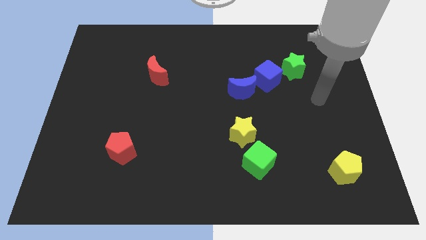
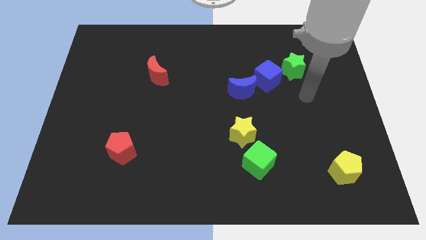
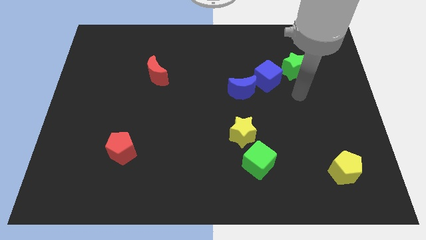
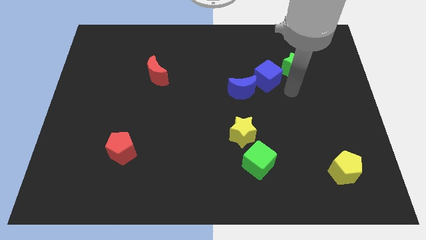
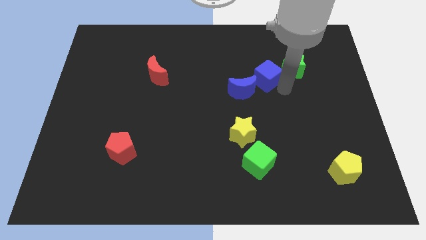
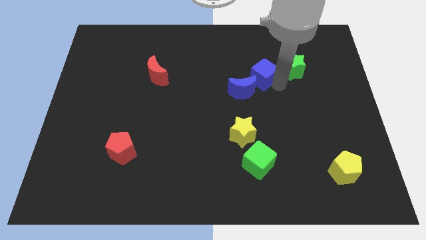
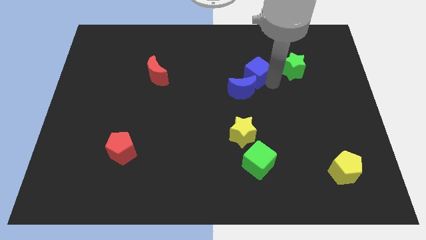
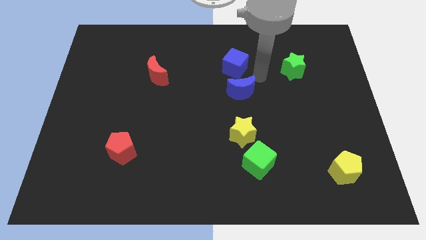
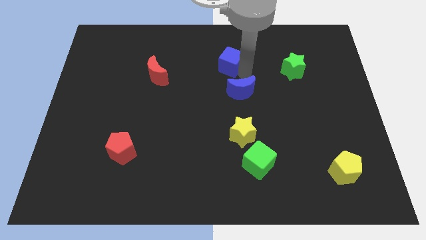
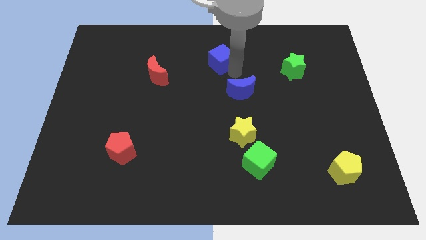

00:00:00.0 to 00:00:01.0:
separate the blue moon from the blue cube

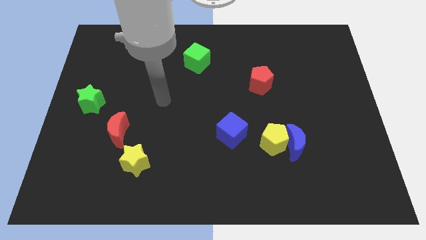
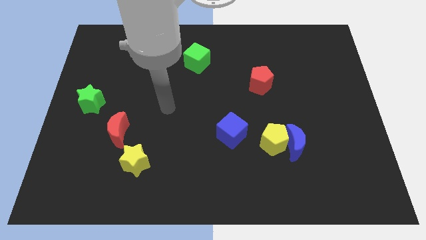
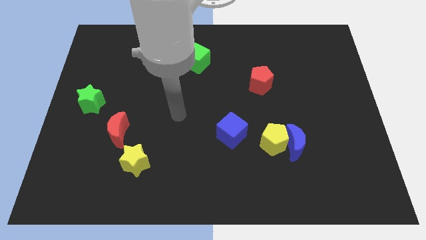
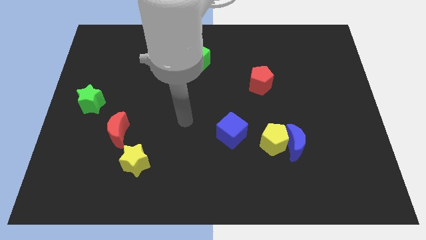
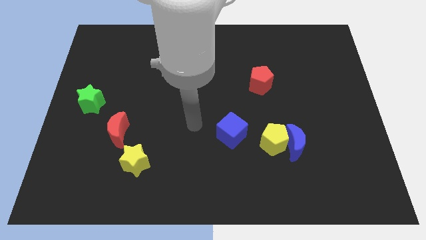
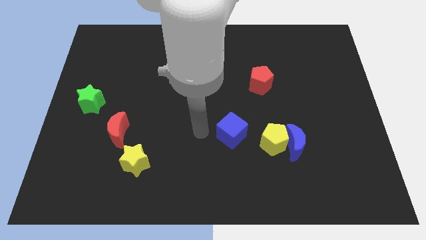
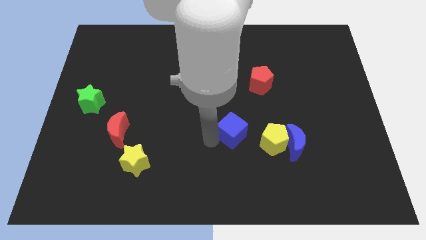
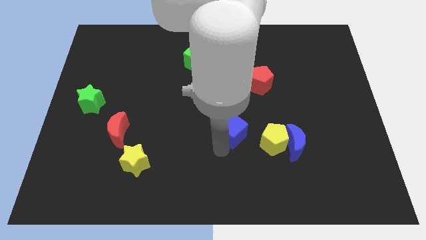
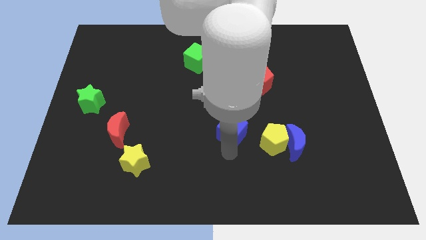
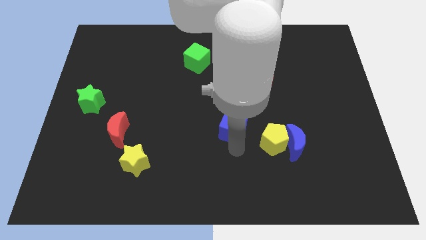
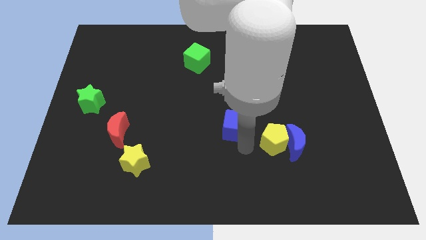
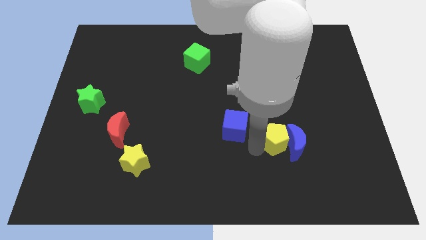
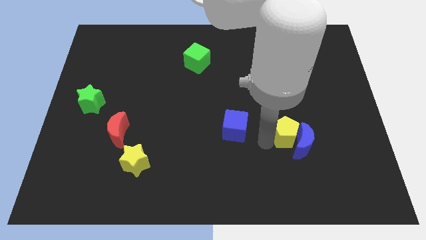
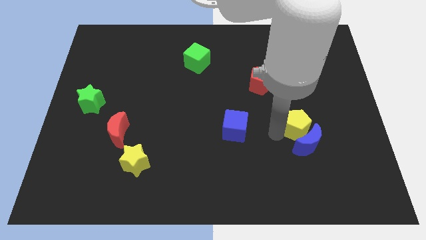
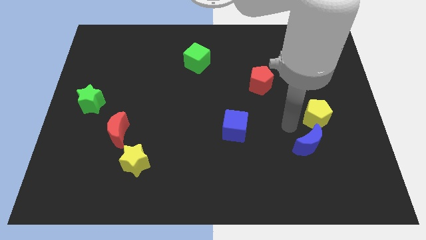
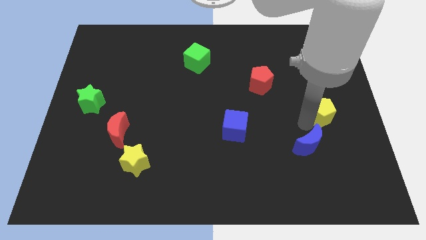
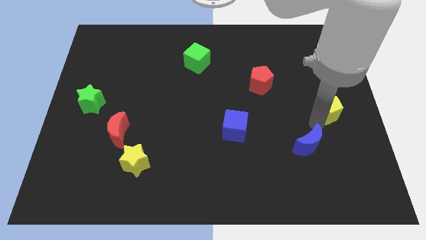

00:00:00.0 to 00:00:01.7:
separate the blue moon from the yellow pentagon

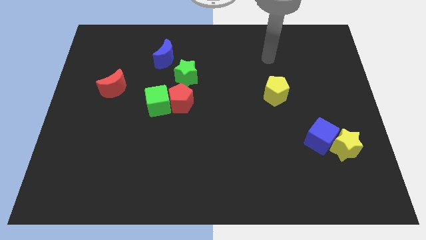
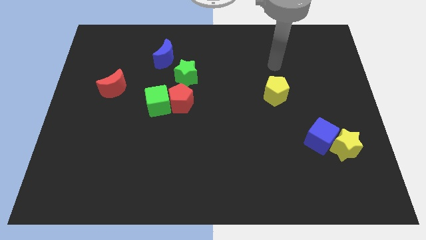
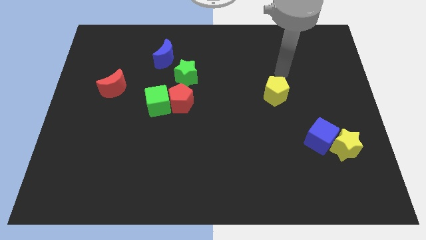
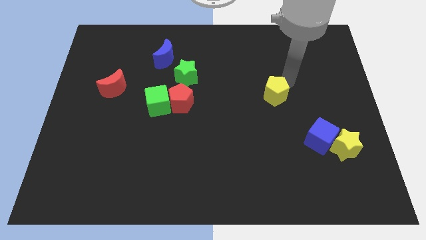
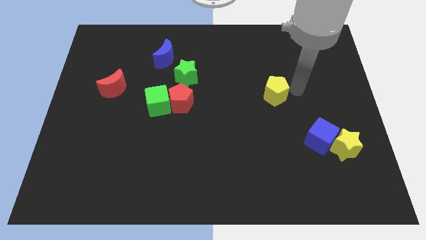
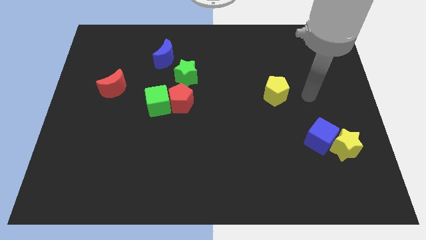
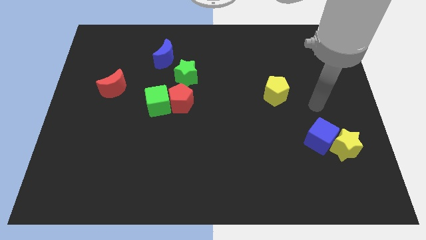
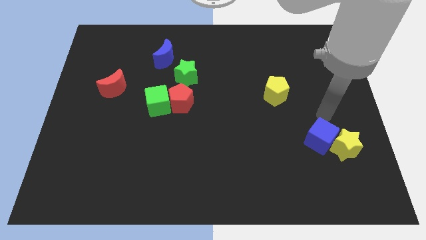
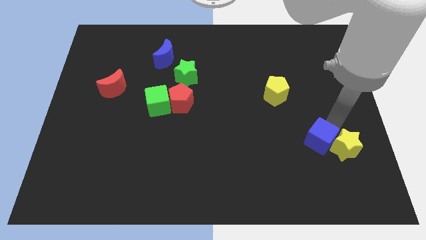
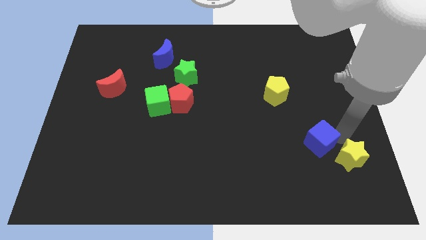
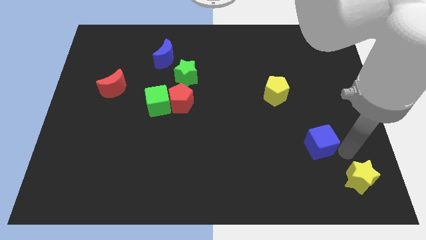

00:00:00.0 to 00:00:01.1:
pull the blue cube apart from the yellow star

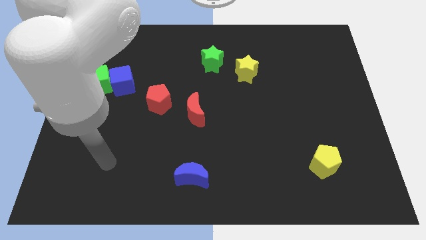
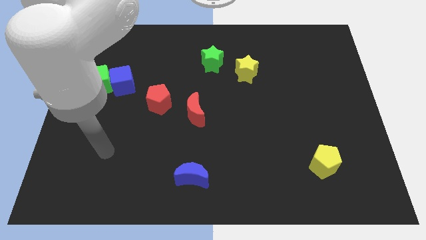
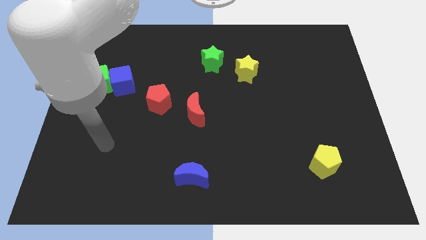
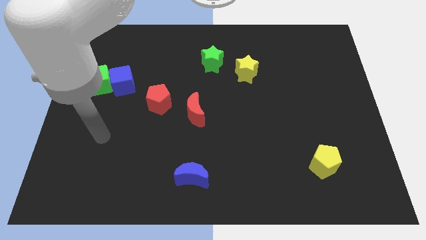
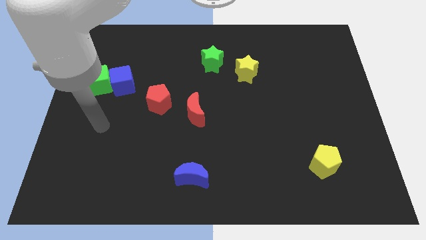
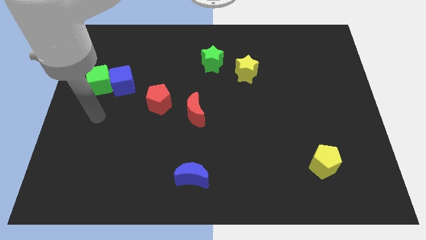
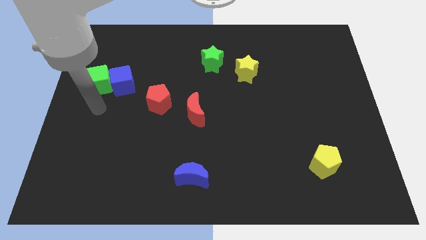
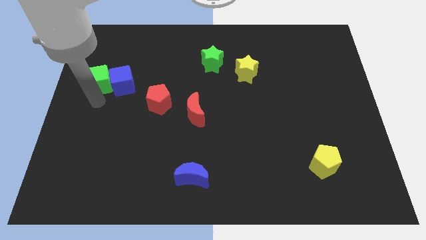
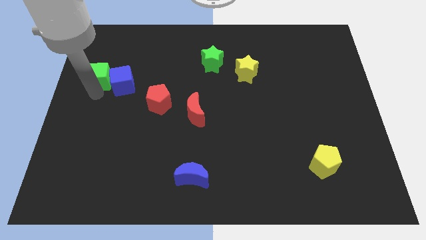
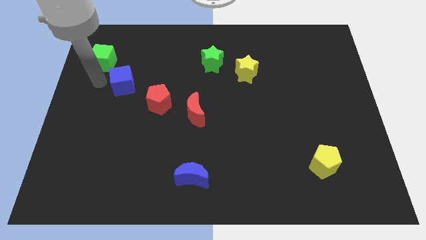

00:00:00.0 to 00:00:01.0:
move the blue cube away from the green cube

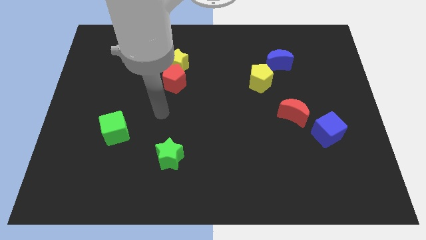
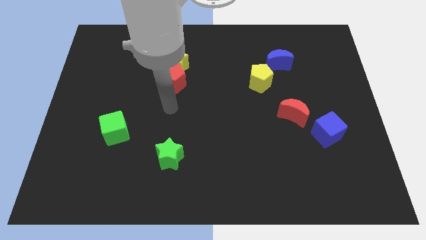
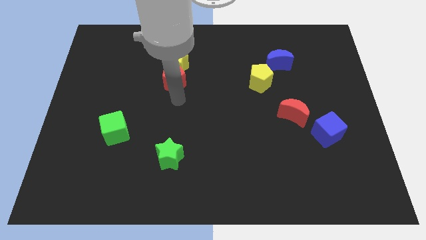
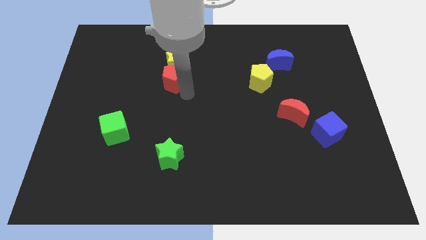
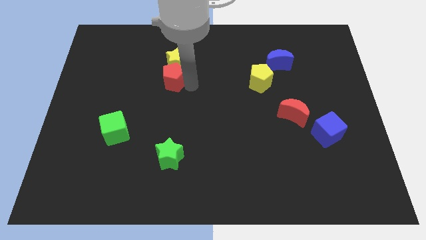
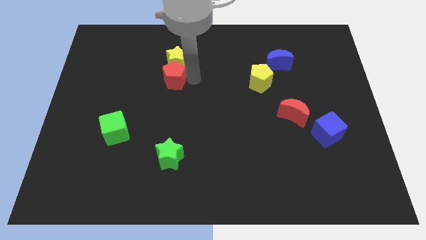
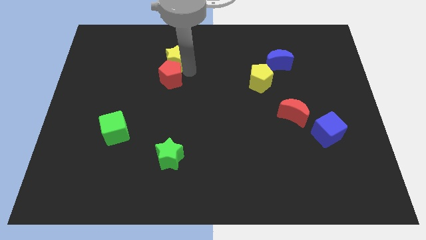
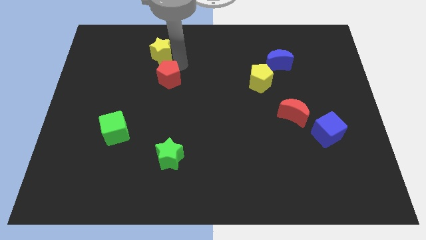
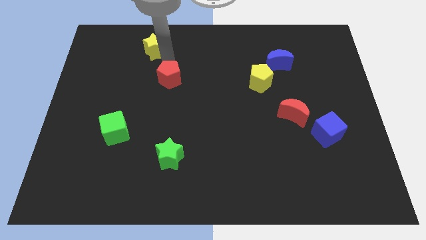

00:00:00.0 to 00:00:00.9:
separate the red pentagon from the yellow star

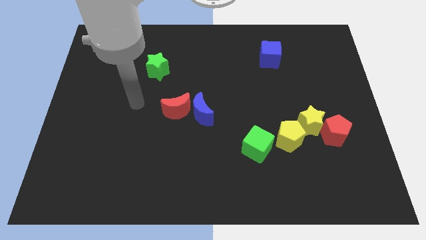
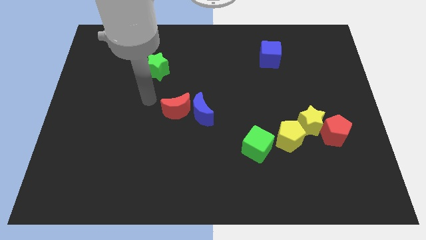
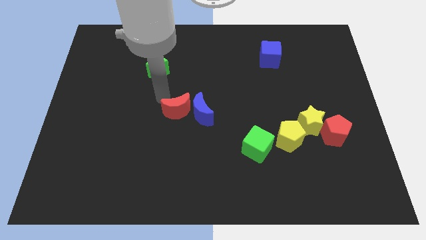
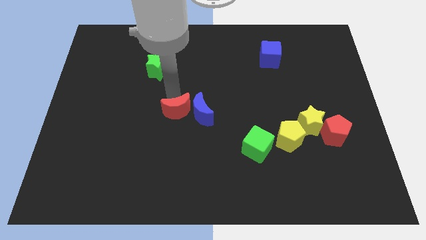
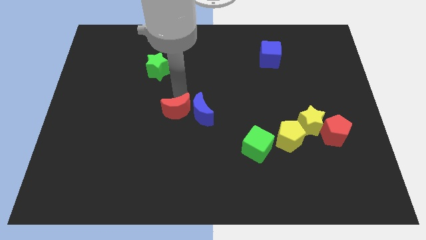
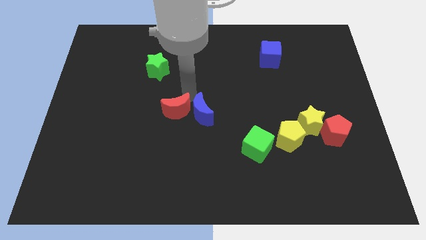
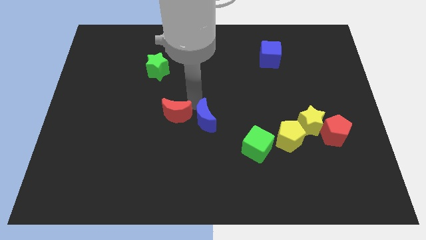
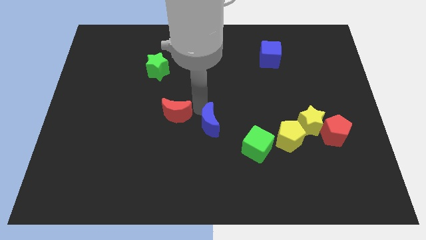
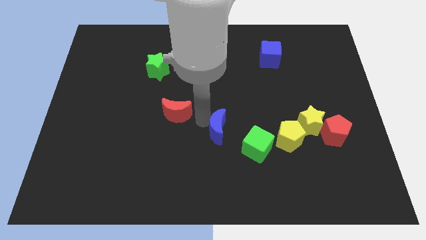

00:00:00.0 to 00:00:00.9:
separate the red moon from the blue moon

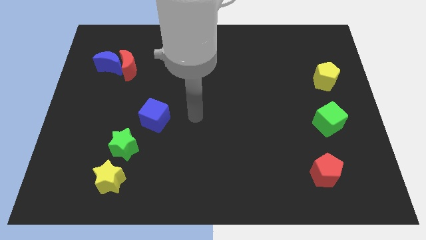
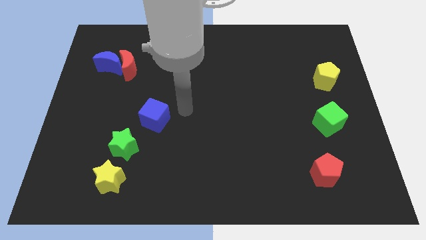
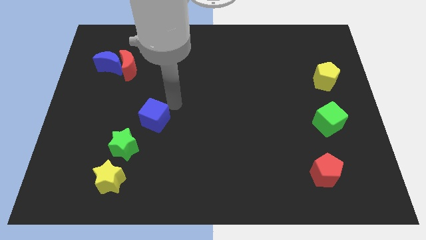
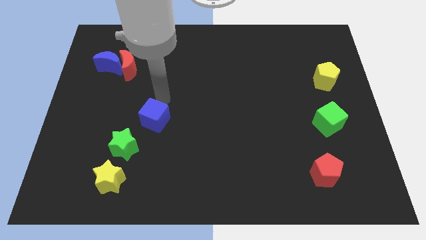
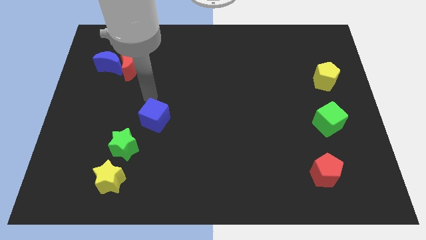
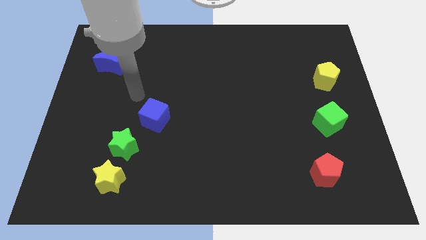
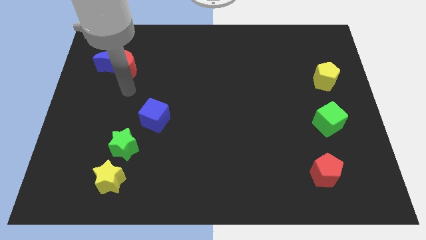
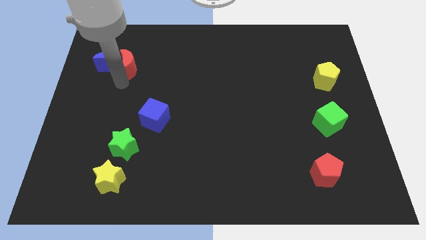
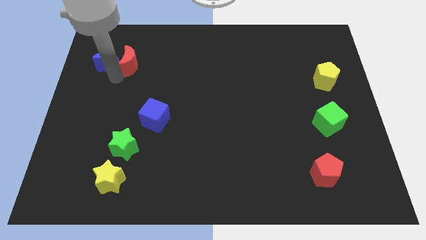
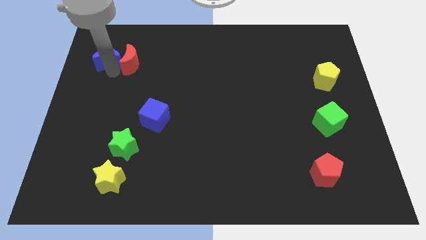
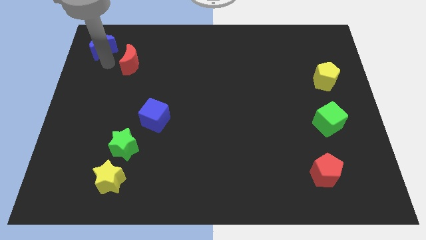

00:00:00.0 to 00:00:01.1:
move the red moon away from the blue moon

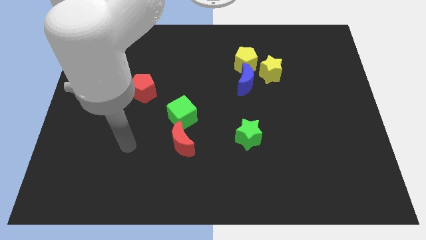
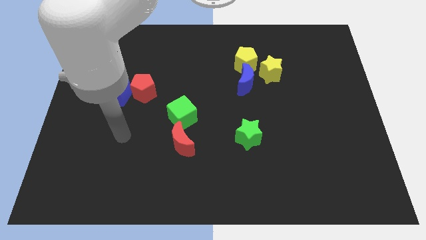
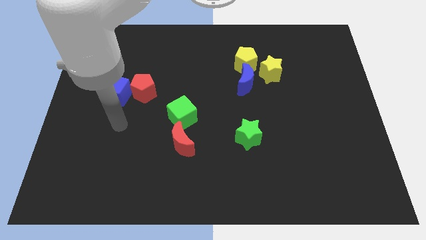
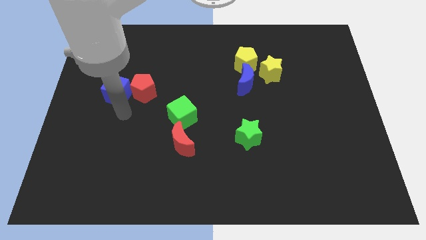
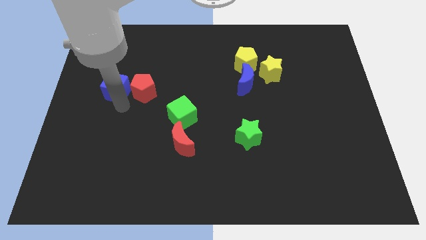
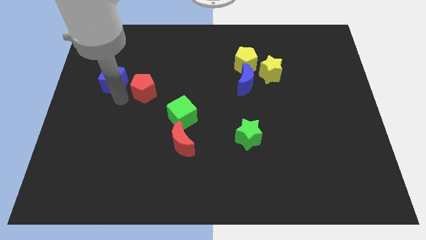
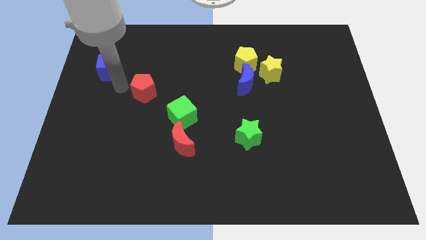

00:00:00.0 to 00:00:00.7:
move the red pentagon away from the blue cube

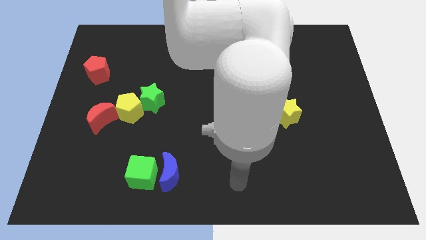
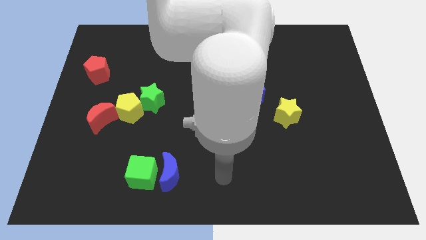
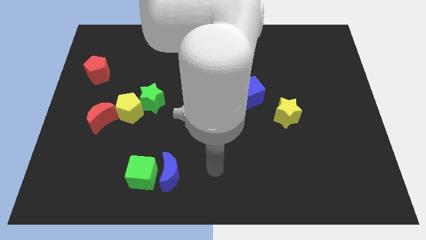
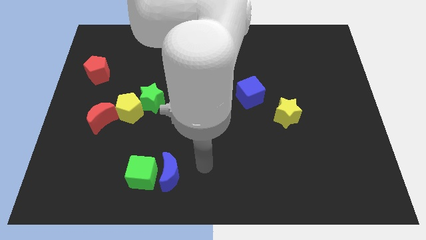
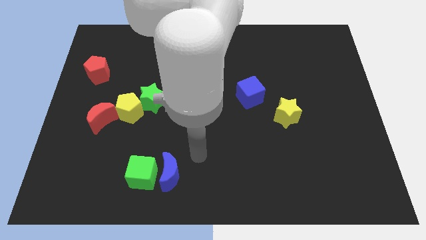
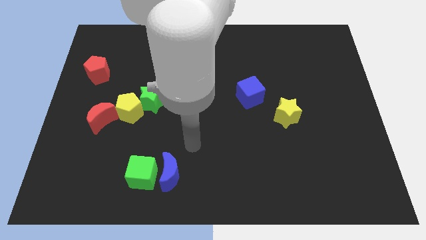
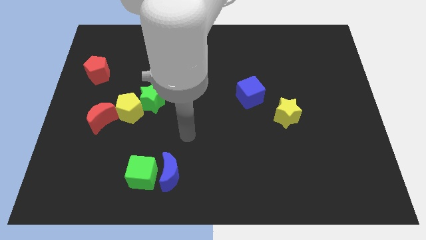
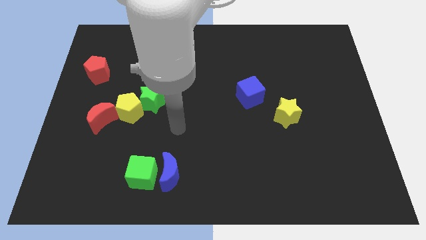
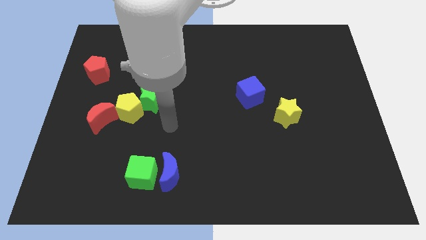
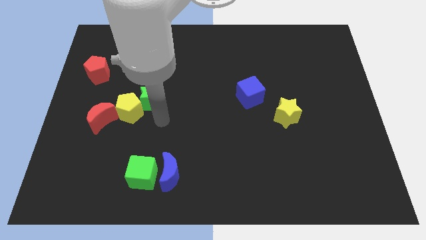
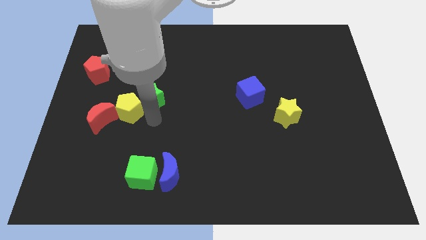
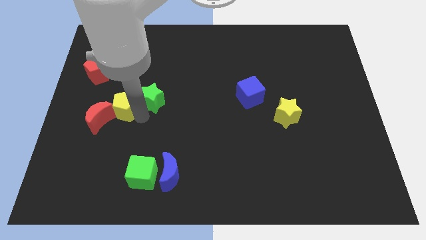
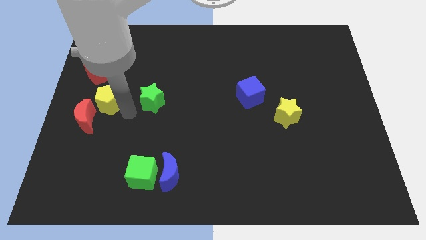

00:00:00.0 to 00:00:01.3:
move the green star away from the yellow pentagon
